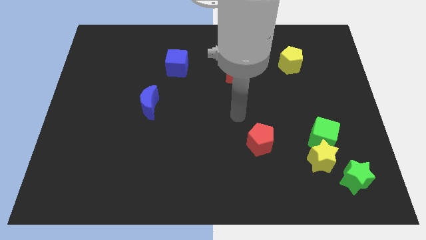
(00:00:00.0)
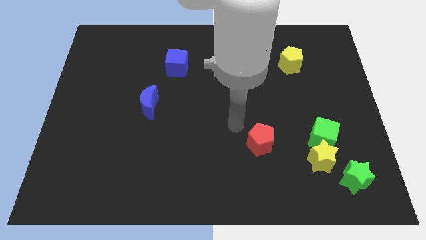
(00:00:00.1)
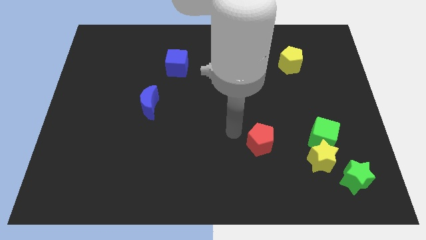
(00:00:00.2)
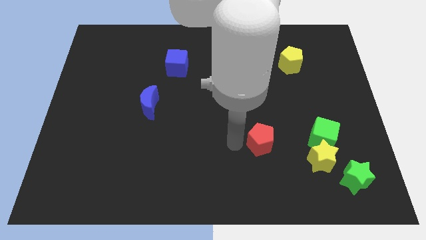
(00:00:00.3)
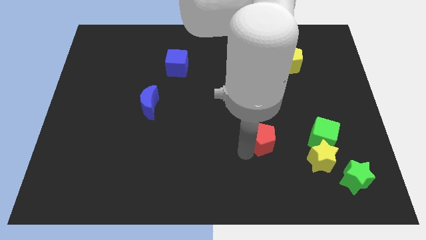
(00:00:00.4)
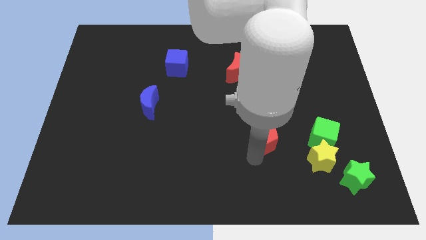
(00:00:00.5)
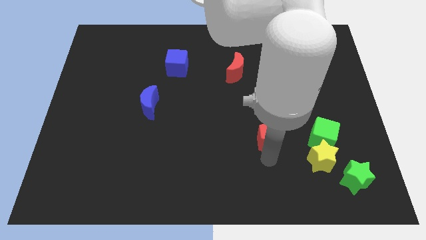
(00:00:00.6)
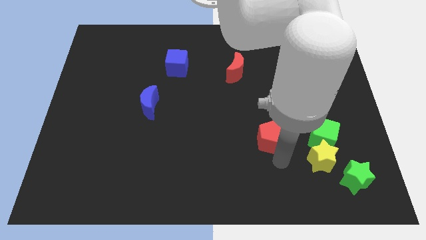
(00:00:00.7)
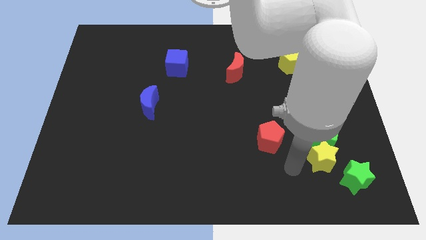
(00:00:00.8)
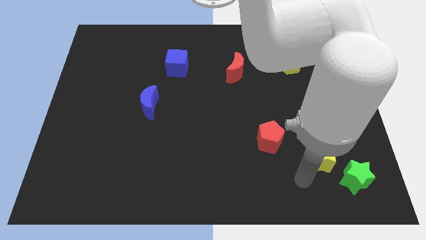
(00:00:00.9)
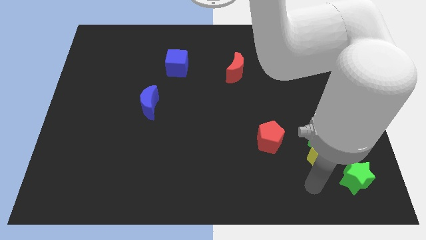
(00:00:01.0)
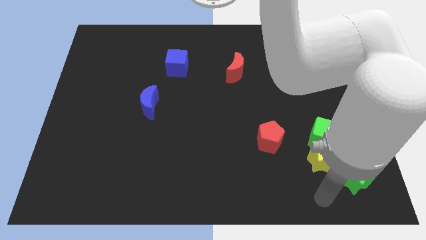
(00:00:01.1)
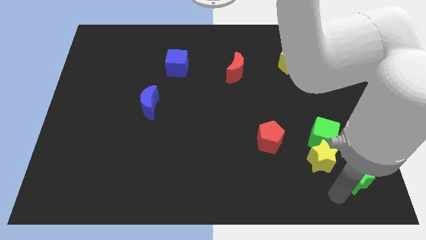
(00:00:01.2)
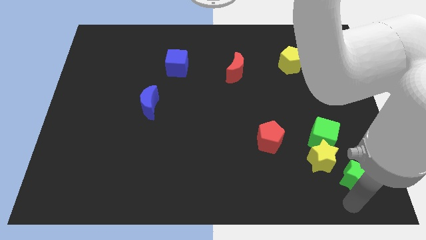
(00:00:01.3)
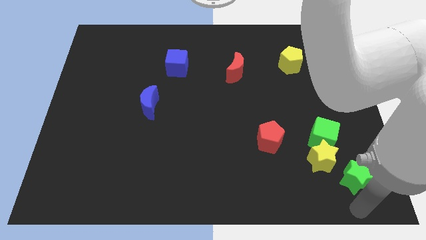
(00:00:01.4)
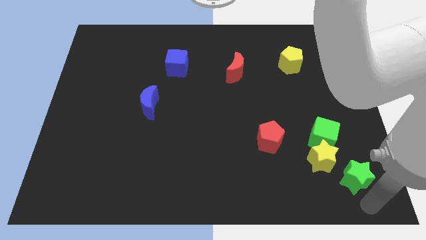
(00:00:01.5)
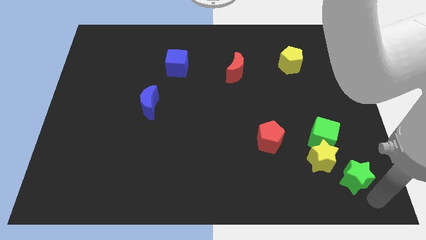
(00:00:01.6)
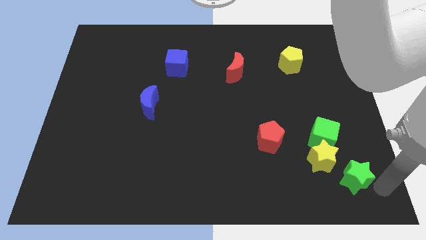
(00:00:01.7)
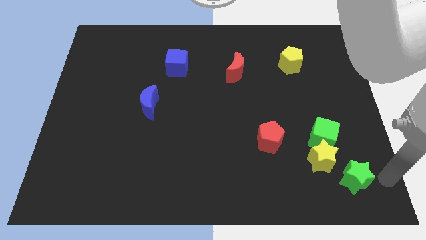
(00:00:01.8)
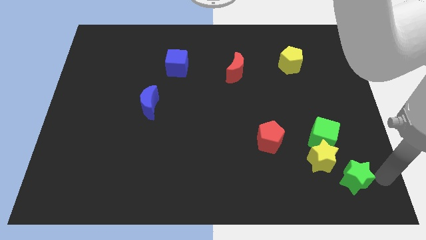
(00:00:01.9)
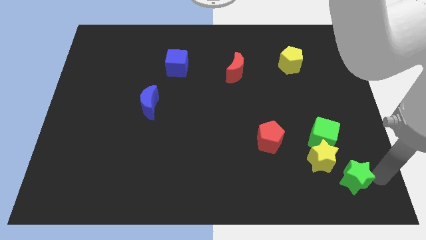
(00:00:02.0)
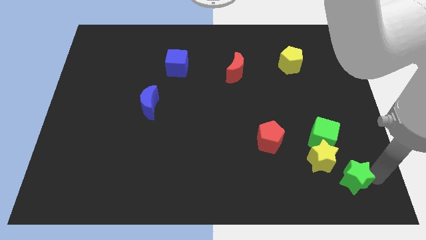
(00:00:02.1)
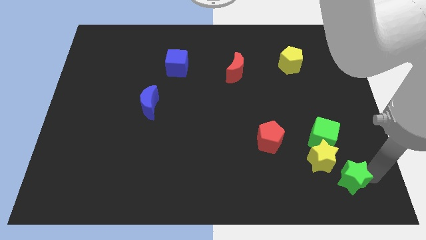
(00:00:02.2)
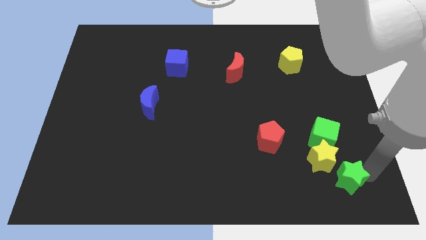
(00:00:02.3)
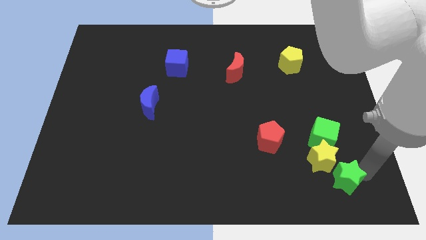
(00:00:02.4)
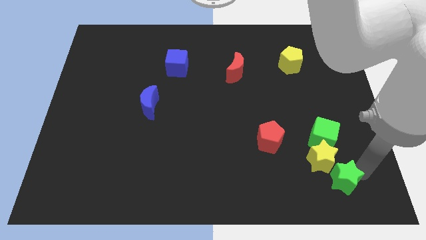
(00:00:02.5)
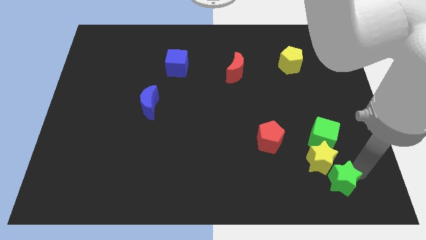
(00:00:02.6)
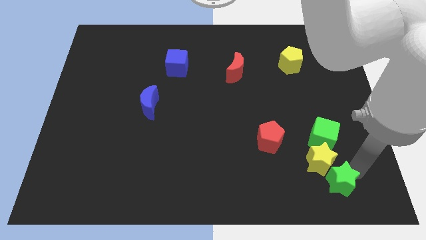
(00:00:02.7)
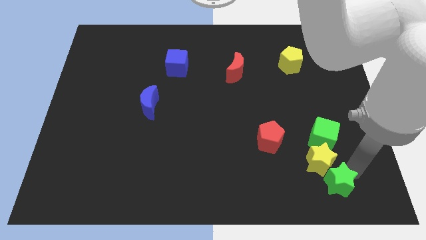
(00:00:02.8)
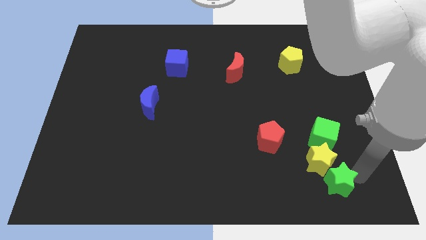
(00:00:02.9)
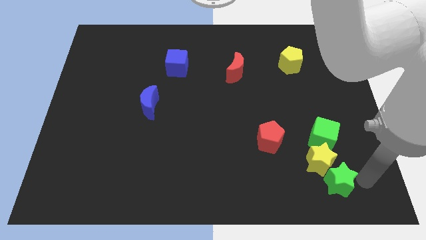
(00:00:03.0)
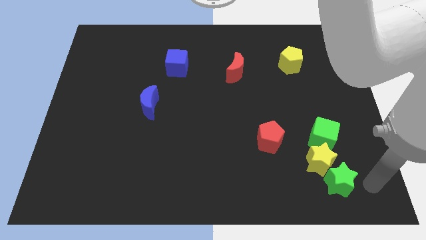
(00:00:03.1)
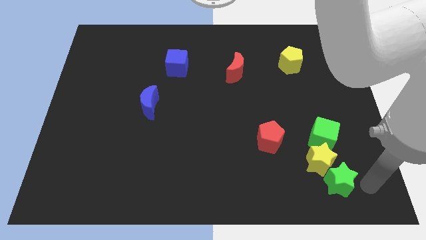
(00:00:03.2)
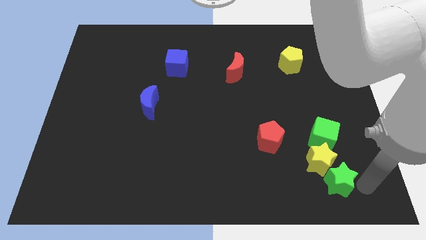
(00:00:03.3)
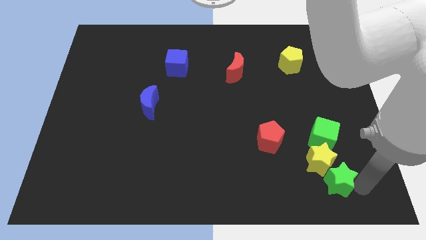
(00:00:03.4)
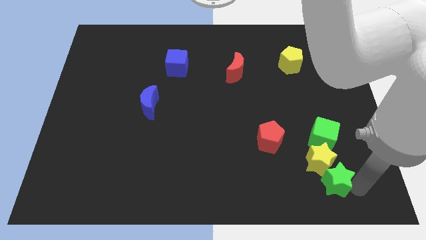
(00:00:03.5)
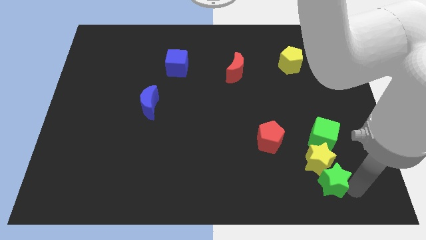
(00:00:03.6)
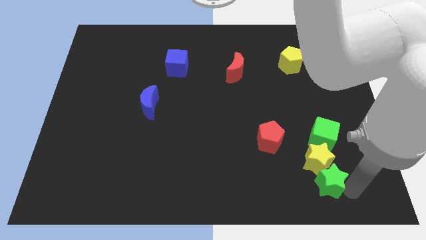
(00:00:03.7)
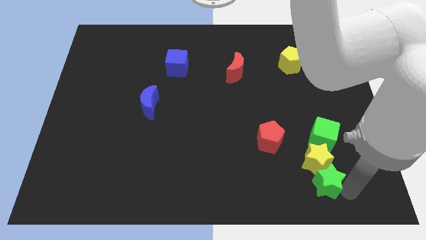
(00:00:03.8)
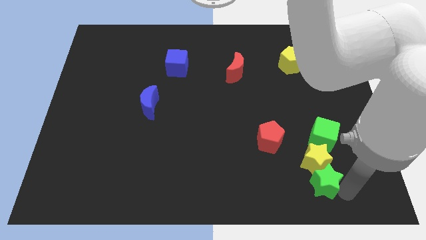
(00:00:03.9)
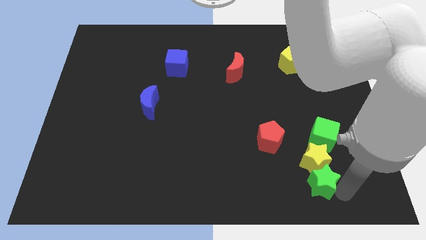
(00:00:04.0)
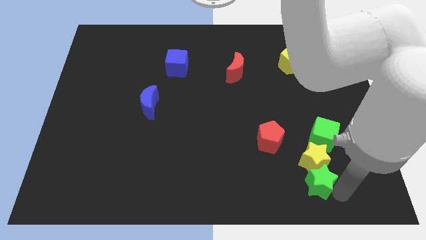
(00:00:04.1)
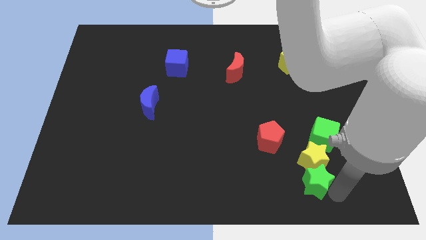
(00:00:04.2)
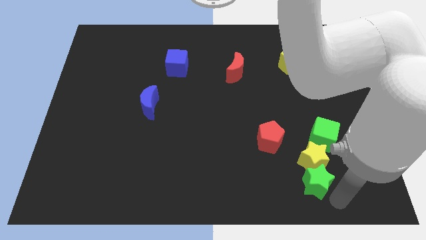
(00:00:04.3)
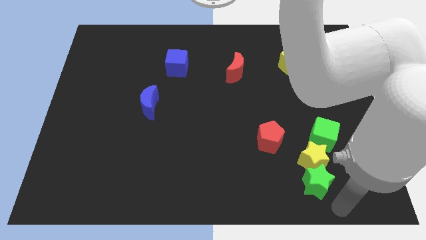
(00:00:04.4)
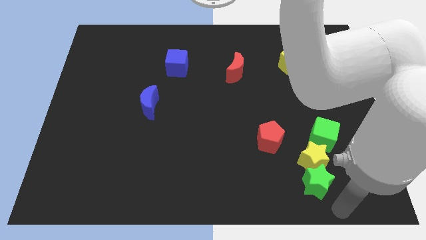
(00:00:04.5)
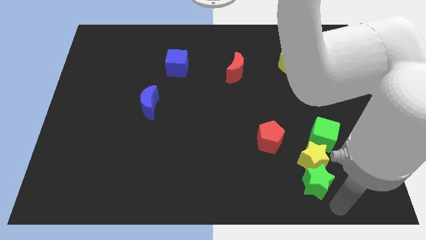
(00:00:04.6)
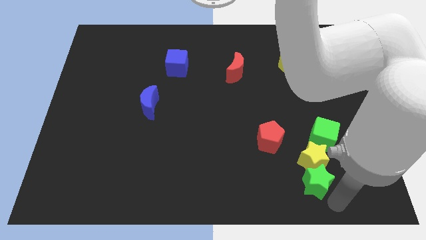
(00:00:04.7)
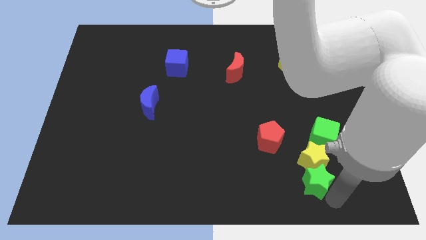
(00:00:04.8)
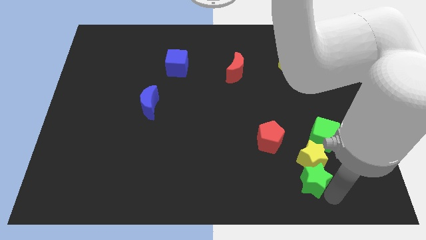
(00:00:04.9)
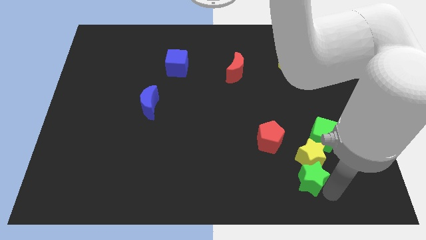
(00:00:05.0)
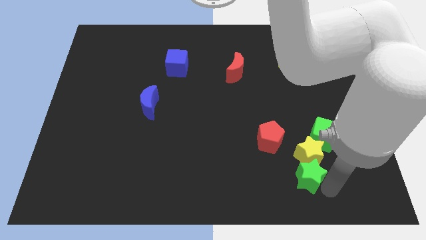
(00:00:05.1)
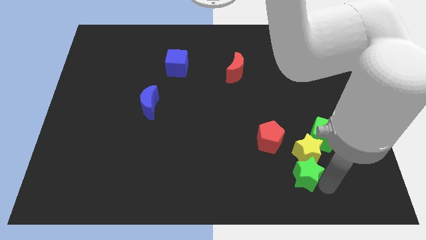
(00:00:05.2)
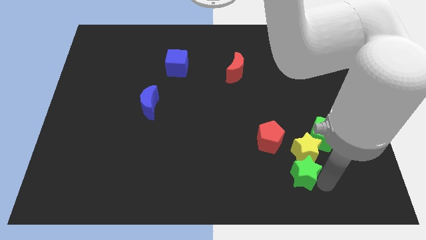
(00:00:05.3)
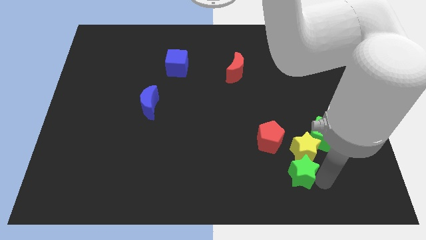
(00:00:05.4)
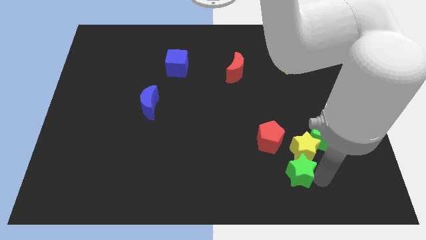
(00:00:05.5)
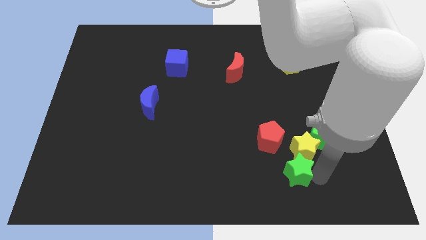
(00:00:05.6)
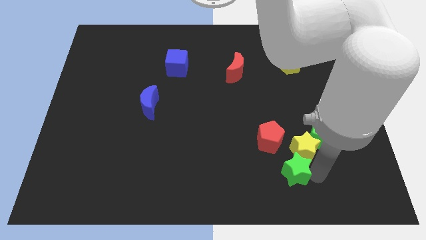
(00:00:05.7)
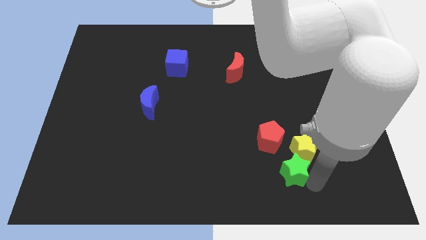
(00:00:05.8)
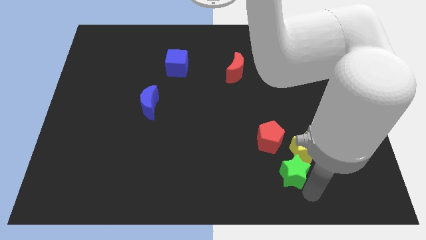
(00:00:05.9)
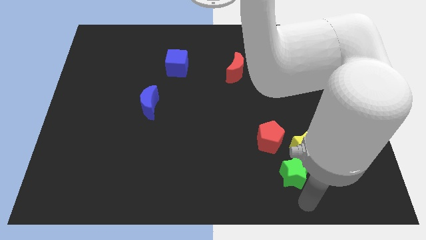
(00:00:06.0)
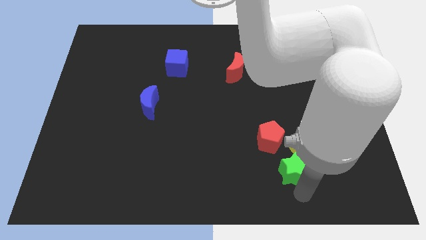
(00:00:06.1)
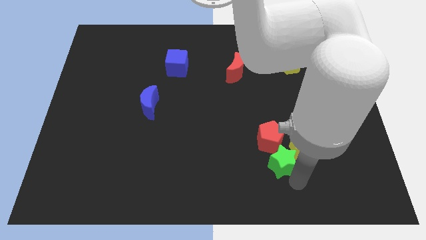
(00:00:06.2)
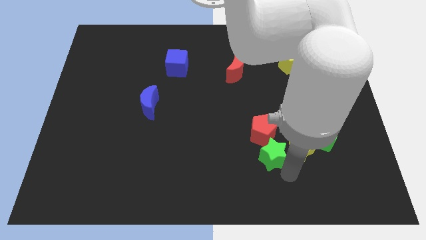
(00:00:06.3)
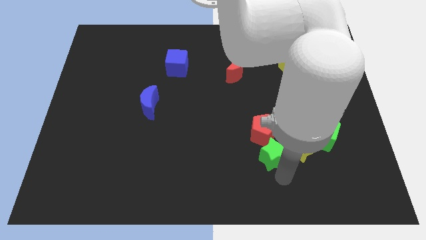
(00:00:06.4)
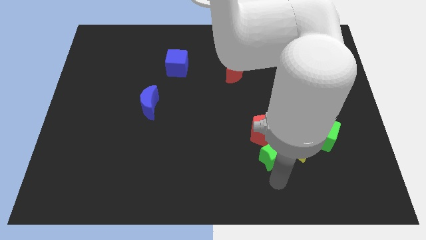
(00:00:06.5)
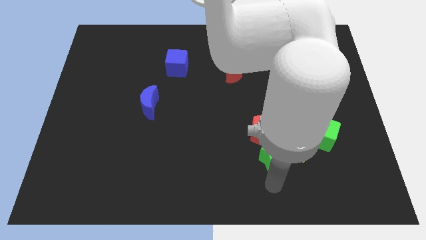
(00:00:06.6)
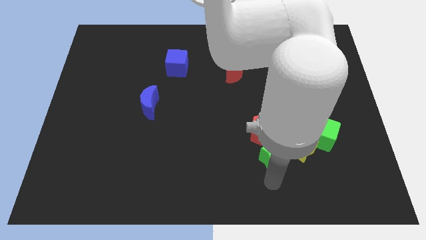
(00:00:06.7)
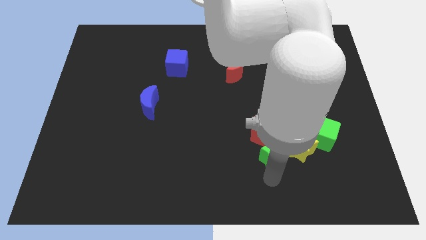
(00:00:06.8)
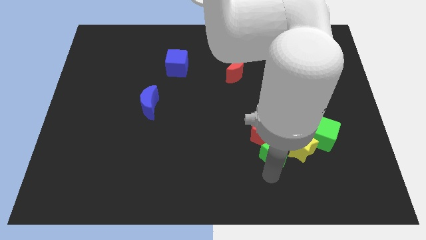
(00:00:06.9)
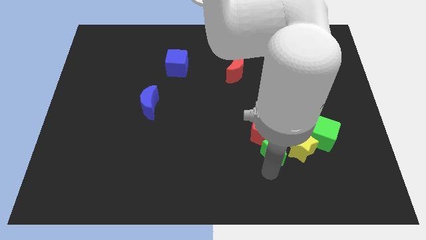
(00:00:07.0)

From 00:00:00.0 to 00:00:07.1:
slide the green star to the top left of the yellow star

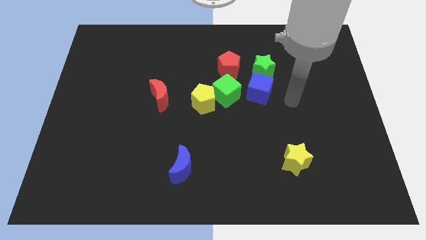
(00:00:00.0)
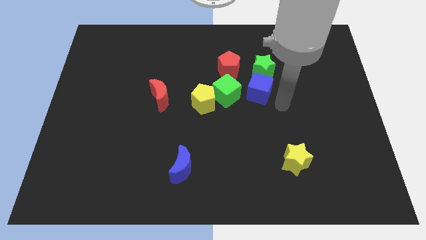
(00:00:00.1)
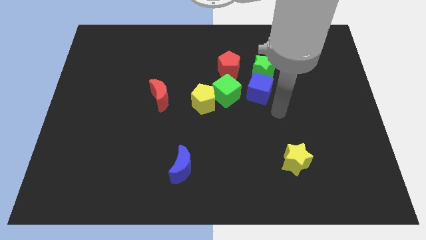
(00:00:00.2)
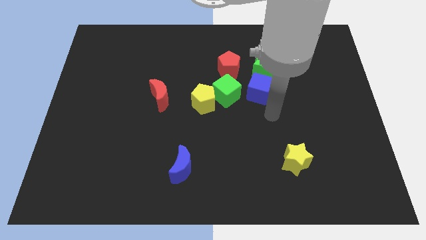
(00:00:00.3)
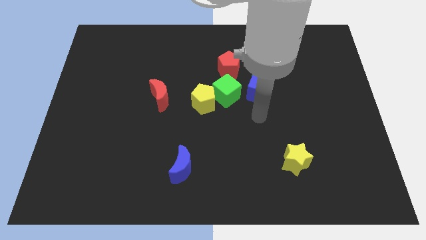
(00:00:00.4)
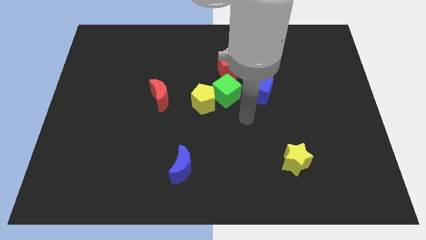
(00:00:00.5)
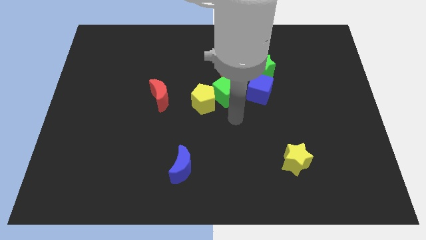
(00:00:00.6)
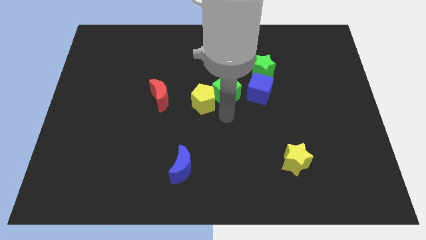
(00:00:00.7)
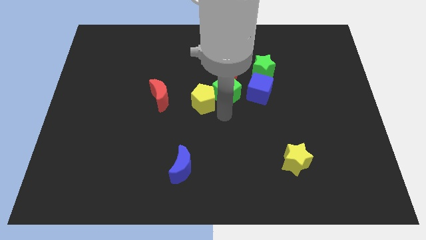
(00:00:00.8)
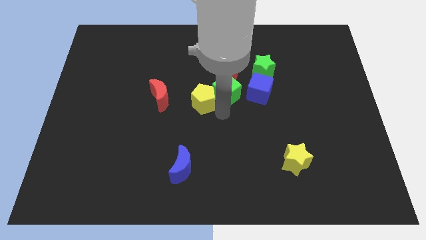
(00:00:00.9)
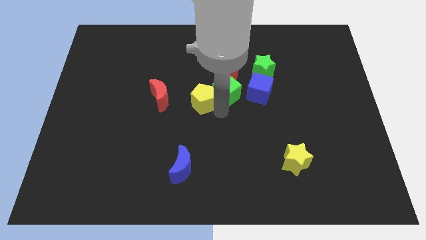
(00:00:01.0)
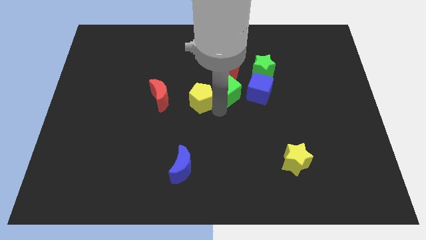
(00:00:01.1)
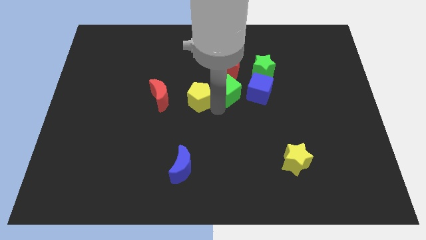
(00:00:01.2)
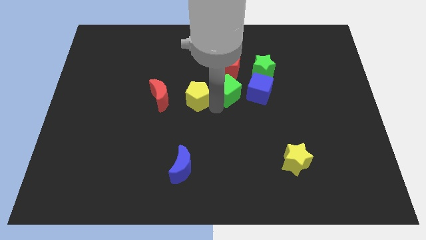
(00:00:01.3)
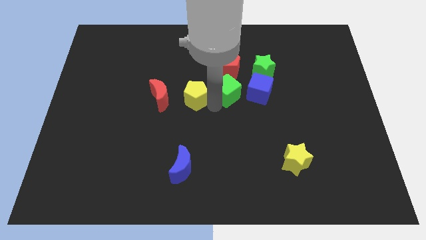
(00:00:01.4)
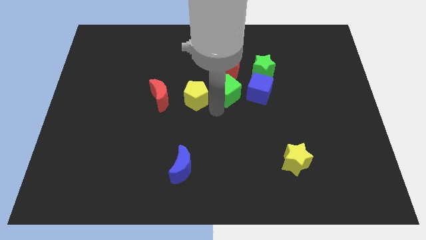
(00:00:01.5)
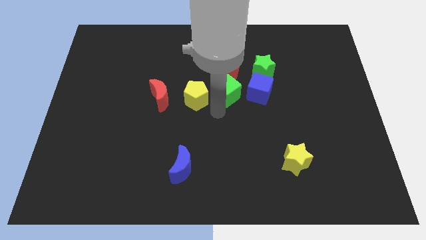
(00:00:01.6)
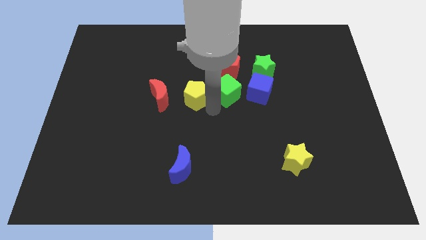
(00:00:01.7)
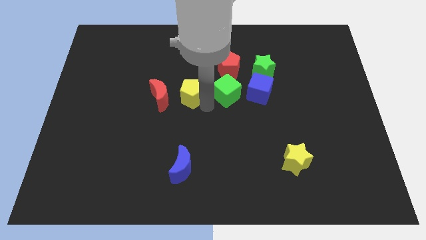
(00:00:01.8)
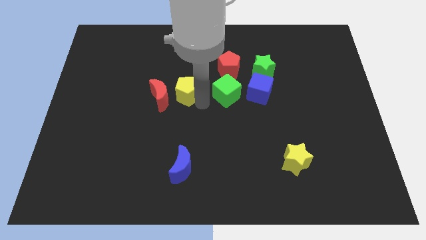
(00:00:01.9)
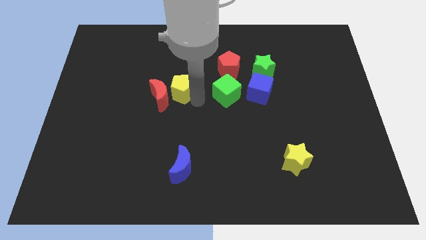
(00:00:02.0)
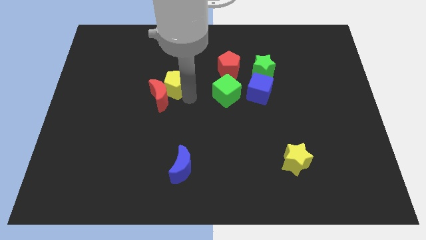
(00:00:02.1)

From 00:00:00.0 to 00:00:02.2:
push the yellow pentagon to the top side of the red moon
